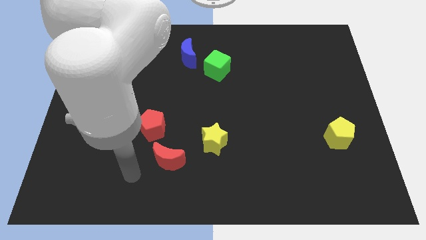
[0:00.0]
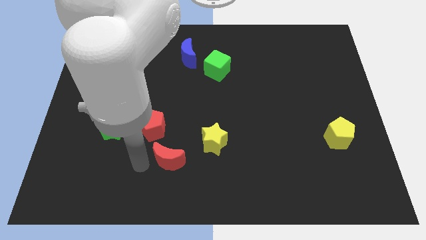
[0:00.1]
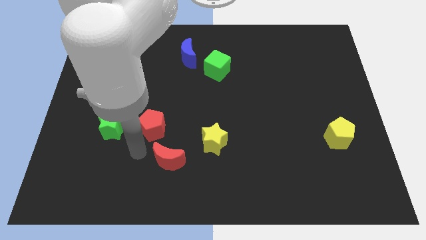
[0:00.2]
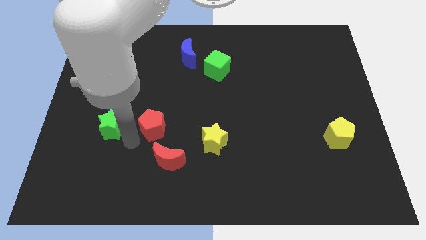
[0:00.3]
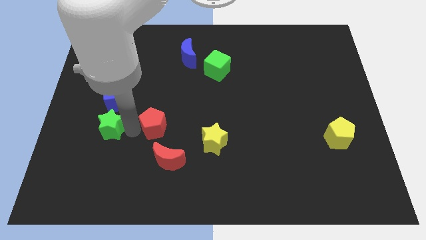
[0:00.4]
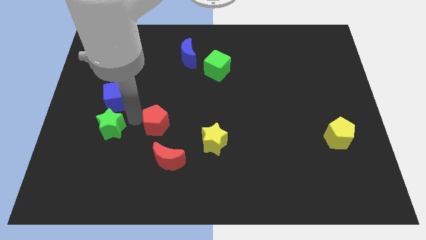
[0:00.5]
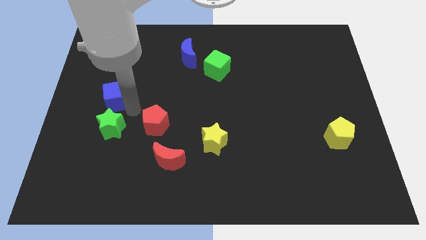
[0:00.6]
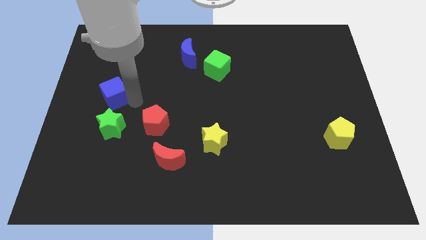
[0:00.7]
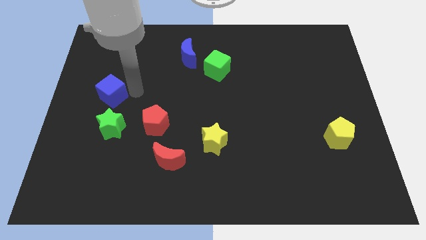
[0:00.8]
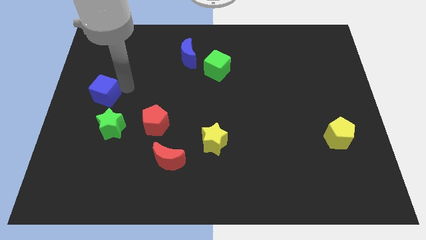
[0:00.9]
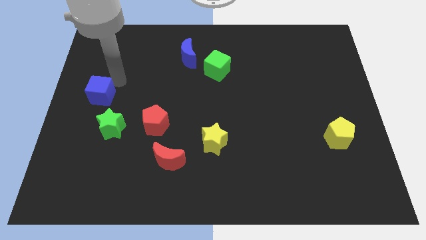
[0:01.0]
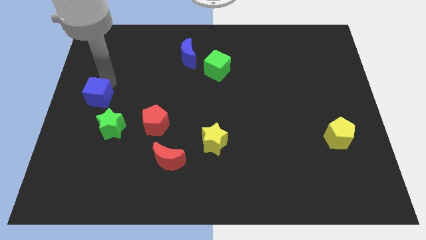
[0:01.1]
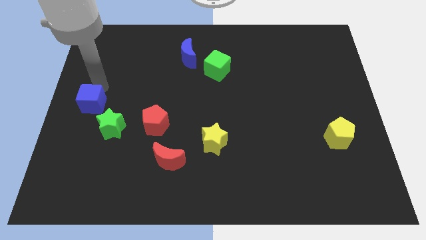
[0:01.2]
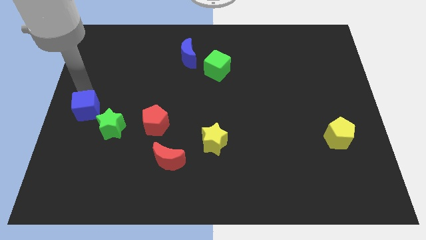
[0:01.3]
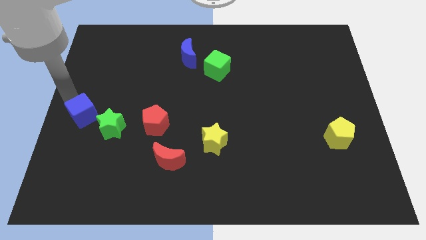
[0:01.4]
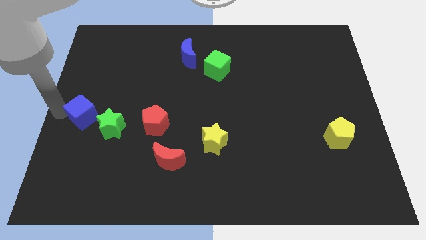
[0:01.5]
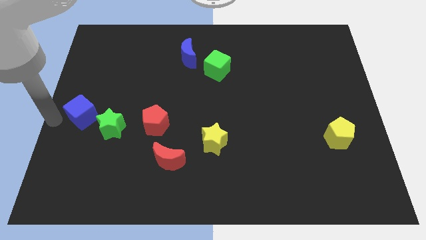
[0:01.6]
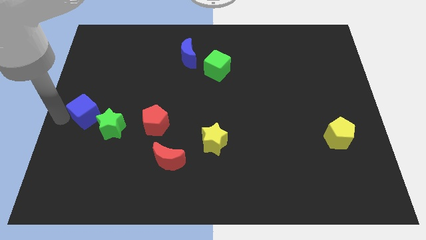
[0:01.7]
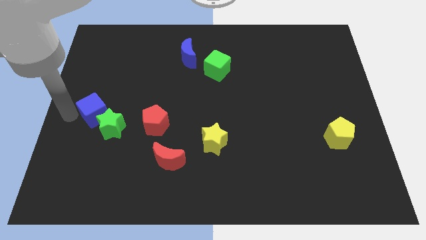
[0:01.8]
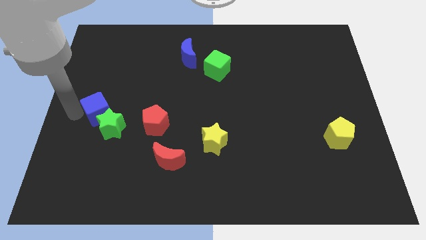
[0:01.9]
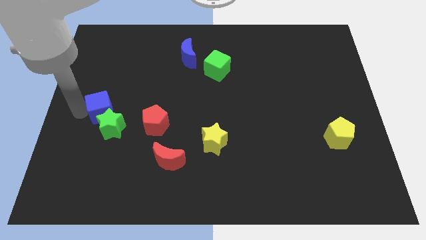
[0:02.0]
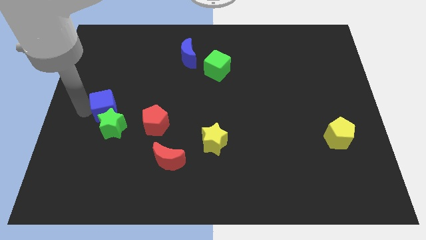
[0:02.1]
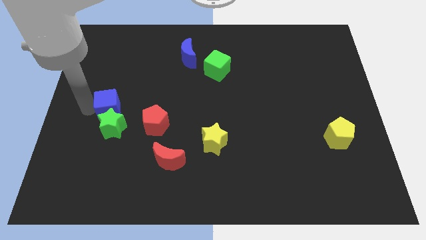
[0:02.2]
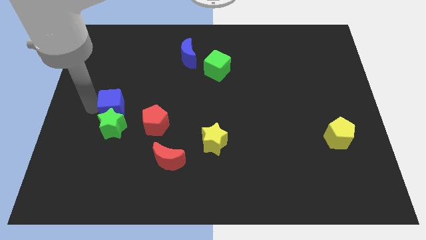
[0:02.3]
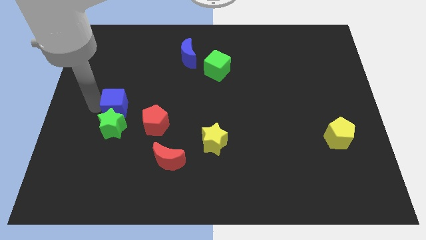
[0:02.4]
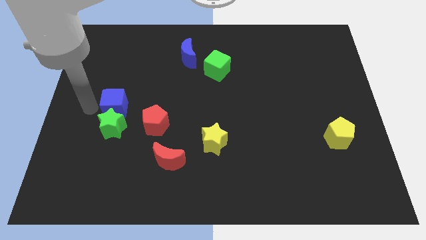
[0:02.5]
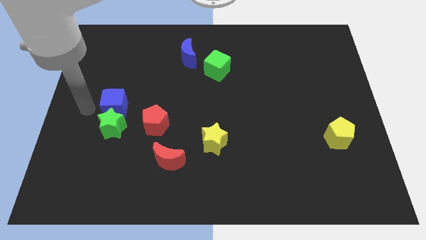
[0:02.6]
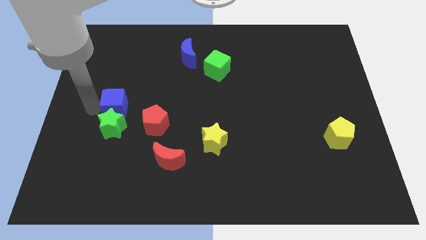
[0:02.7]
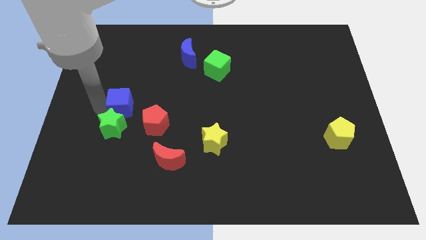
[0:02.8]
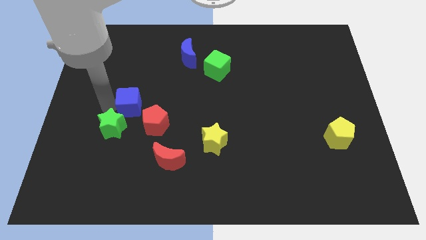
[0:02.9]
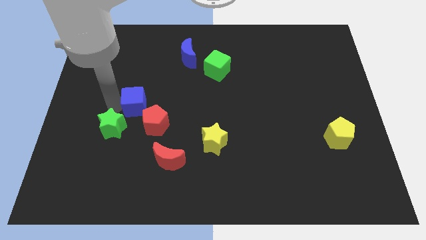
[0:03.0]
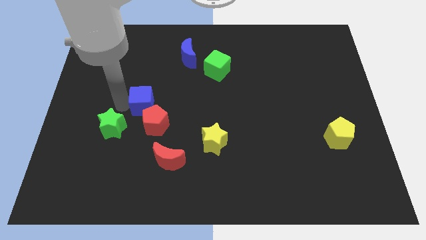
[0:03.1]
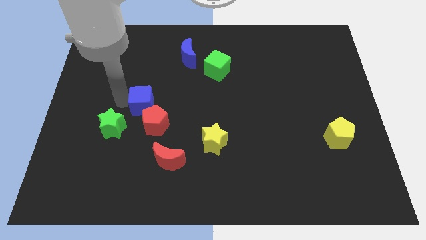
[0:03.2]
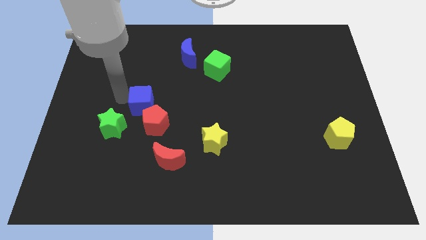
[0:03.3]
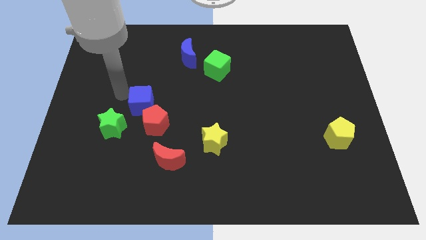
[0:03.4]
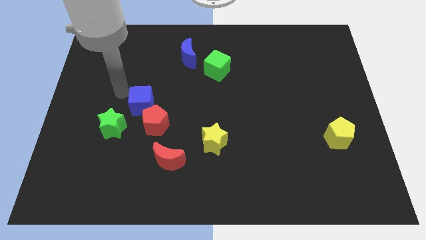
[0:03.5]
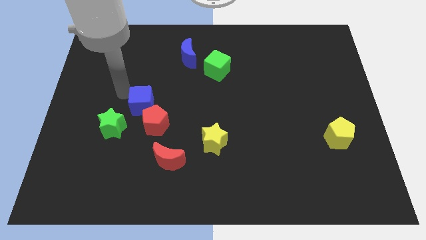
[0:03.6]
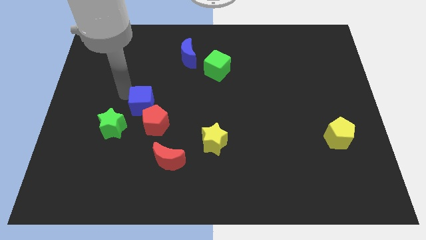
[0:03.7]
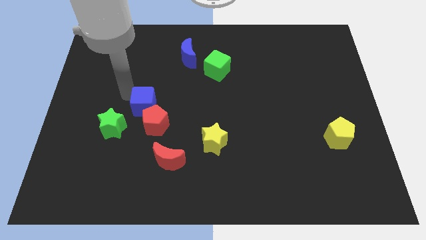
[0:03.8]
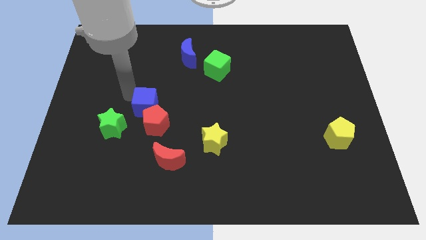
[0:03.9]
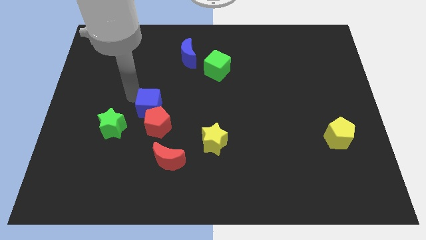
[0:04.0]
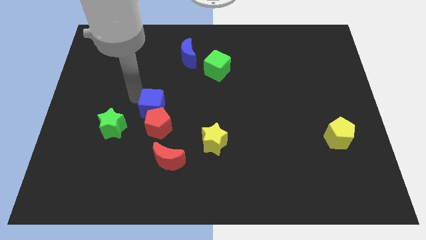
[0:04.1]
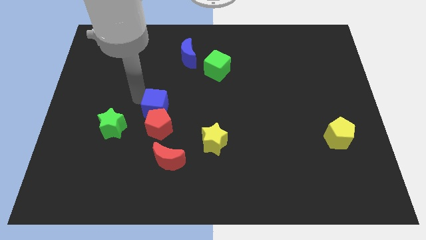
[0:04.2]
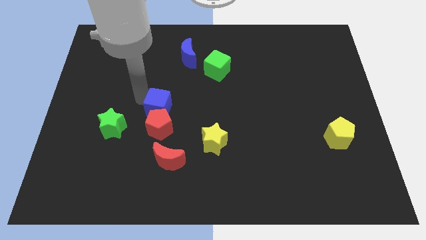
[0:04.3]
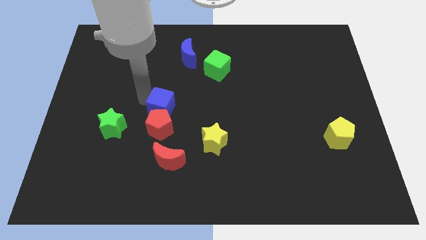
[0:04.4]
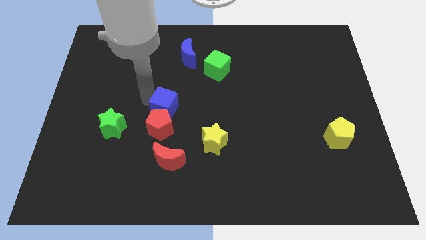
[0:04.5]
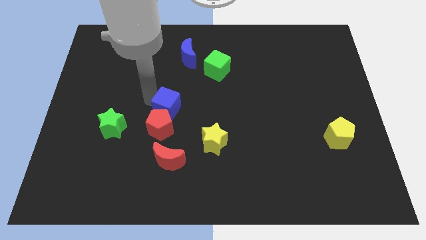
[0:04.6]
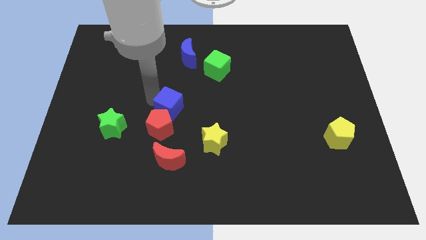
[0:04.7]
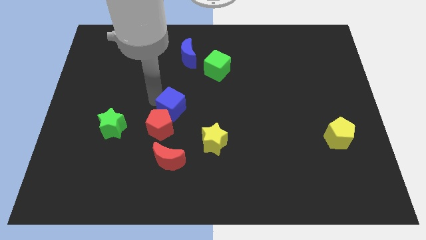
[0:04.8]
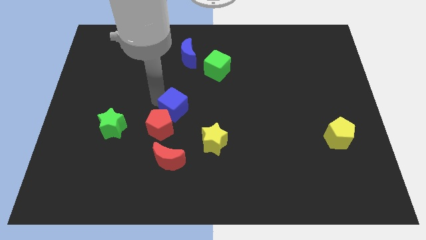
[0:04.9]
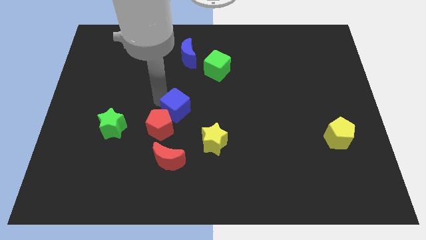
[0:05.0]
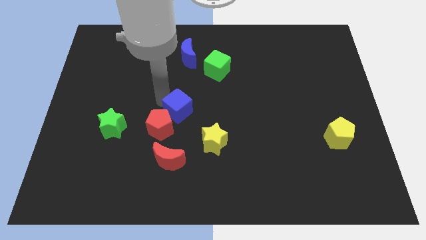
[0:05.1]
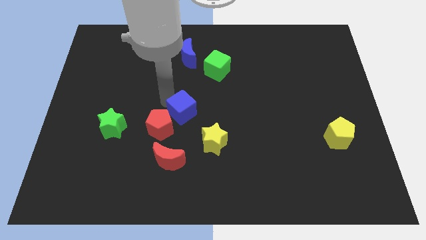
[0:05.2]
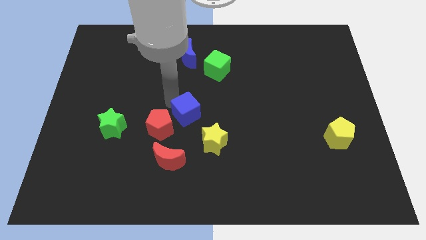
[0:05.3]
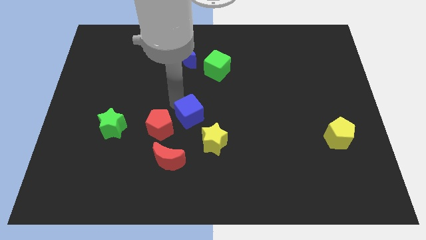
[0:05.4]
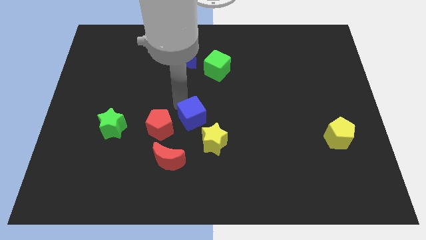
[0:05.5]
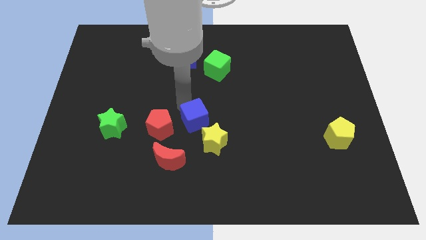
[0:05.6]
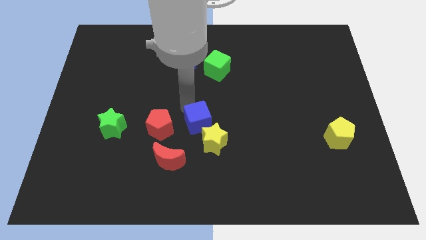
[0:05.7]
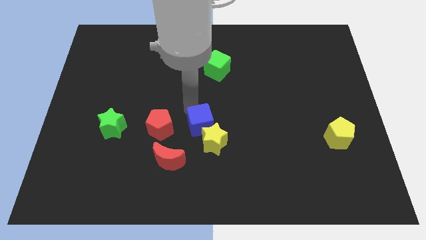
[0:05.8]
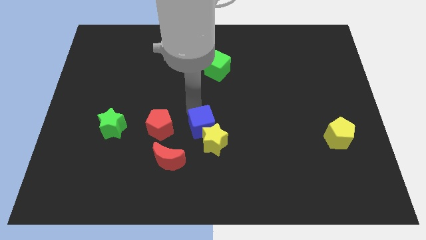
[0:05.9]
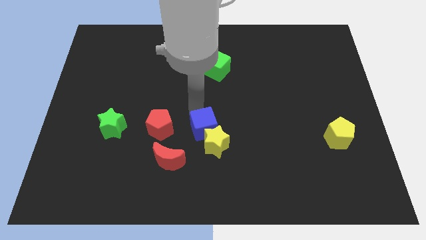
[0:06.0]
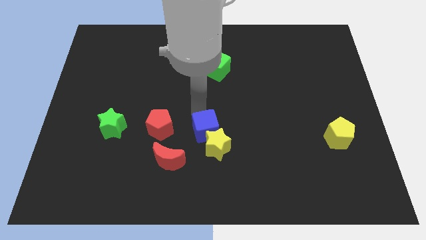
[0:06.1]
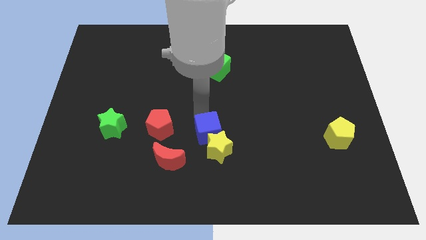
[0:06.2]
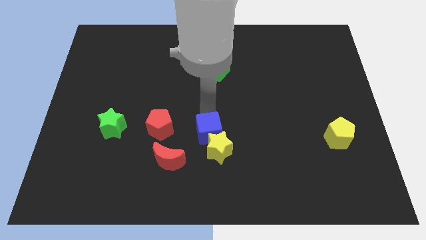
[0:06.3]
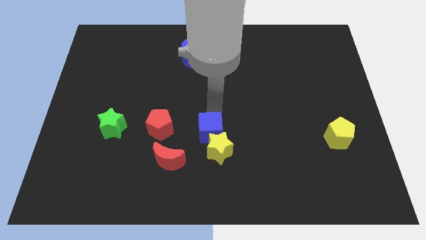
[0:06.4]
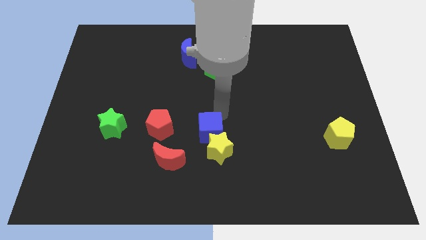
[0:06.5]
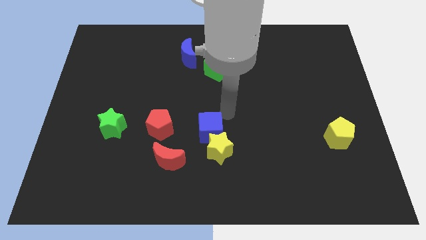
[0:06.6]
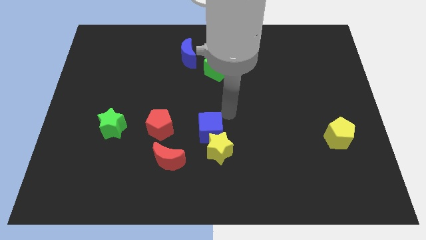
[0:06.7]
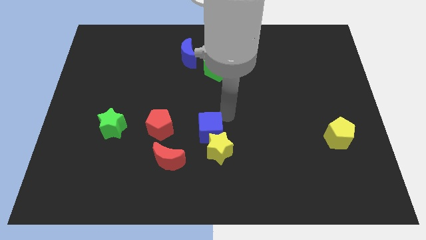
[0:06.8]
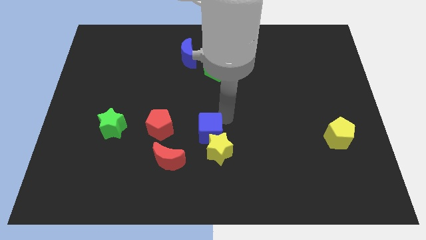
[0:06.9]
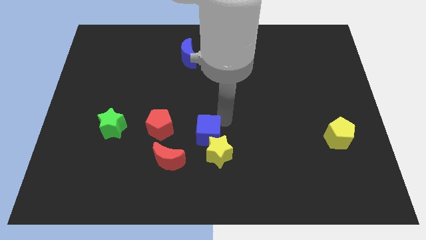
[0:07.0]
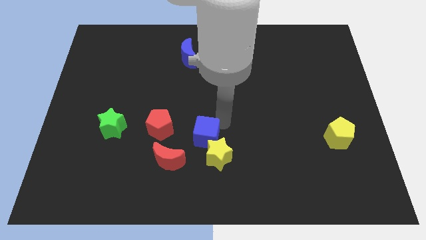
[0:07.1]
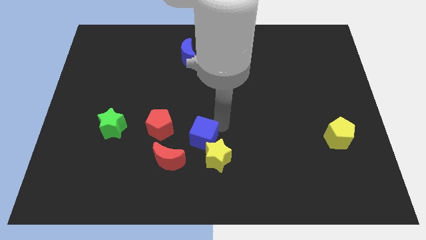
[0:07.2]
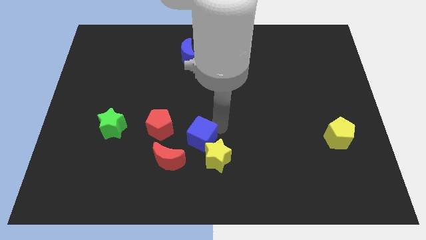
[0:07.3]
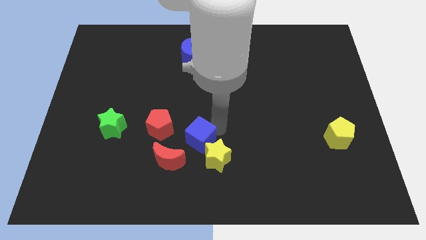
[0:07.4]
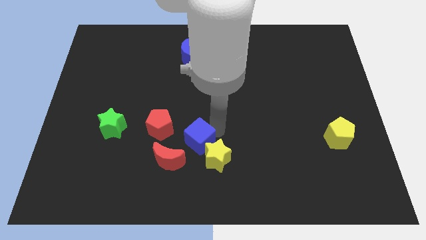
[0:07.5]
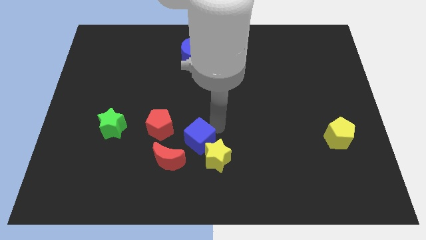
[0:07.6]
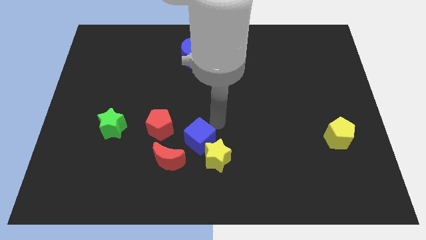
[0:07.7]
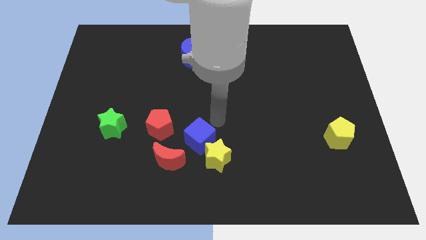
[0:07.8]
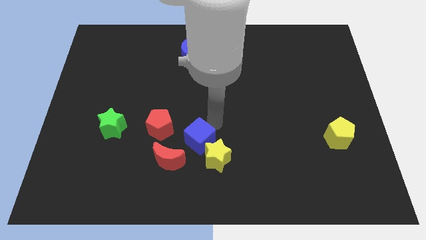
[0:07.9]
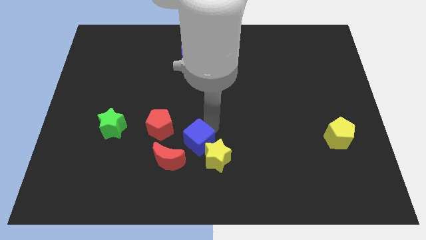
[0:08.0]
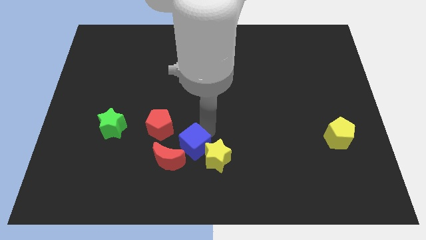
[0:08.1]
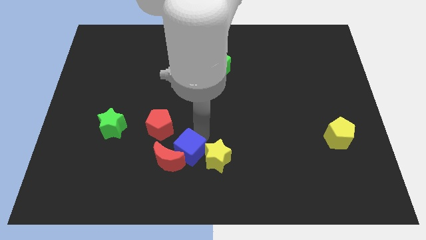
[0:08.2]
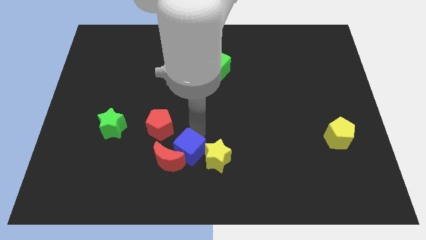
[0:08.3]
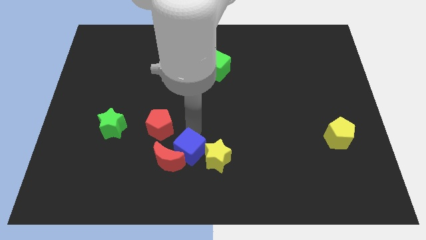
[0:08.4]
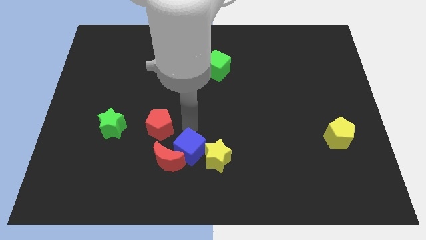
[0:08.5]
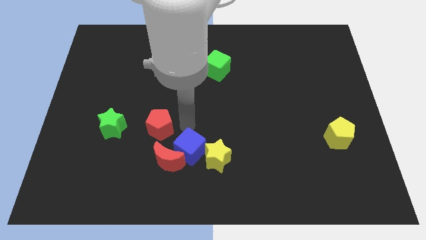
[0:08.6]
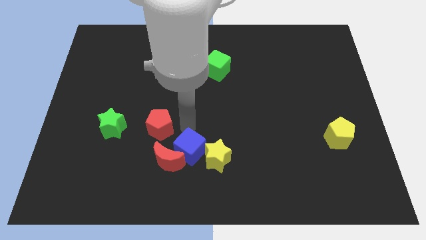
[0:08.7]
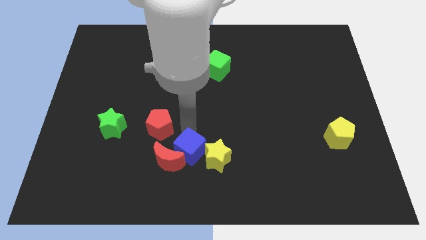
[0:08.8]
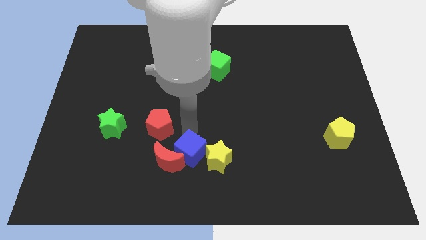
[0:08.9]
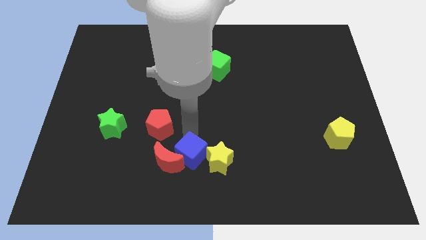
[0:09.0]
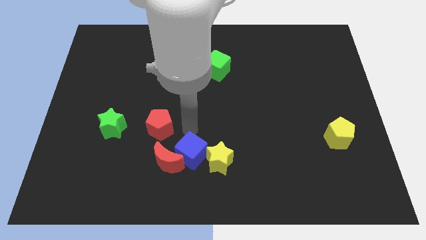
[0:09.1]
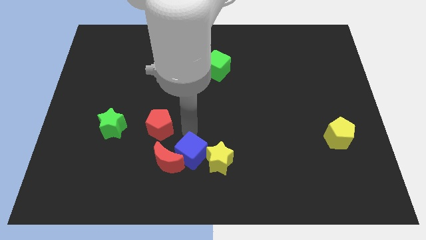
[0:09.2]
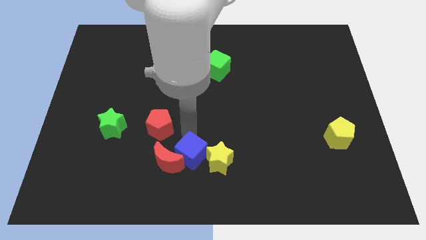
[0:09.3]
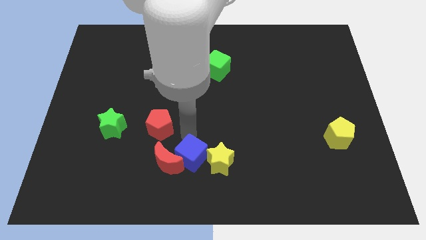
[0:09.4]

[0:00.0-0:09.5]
put the blue cube to the bottom
